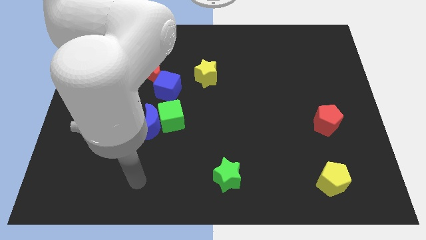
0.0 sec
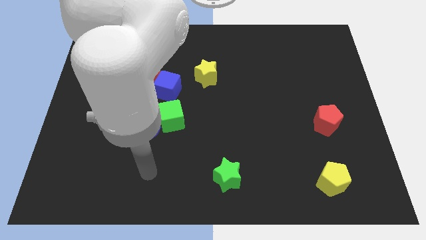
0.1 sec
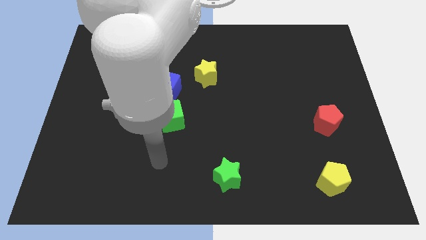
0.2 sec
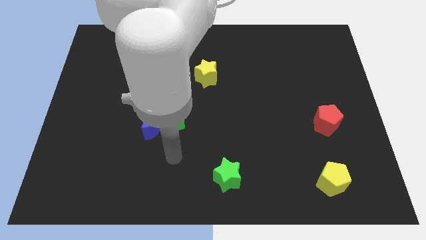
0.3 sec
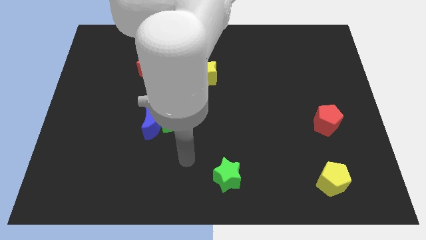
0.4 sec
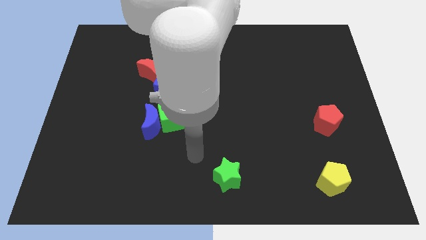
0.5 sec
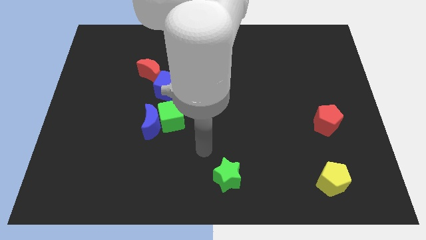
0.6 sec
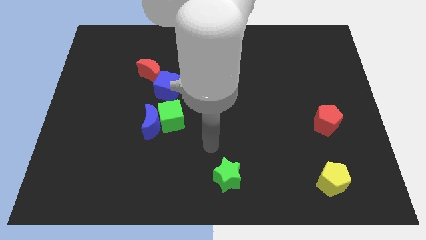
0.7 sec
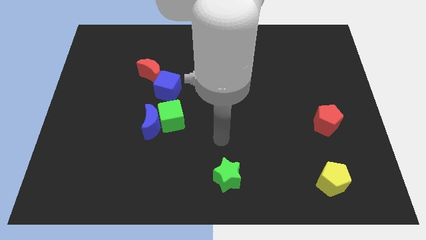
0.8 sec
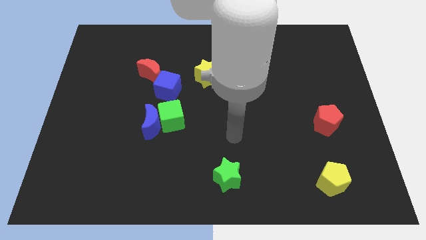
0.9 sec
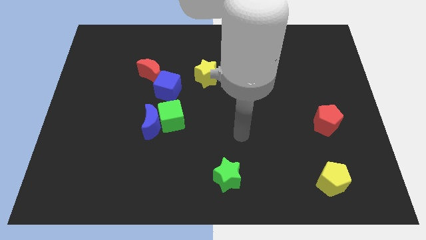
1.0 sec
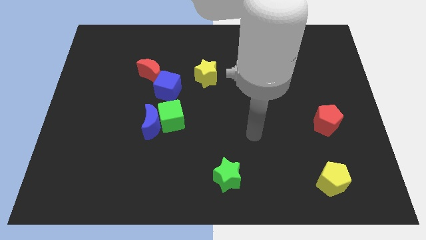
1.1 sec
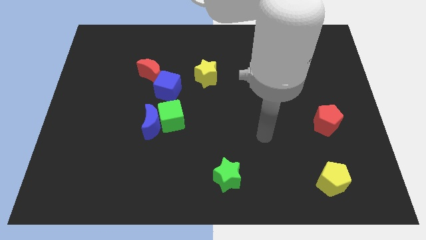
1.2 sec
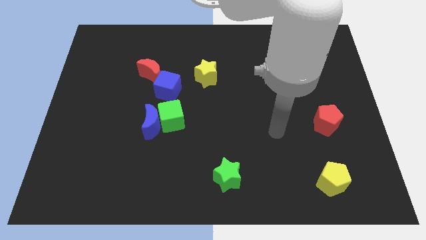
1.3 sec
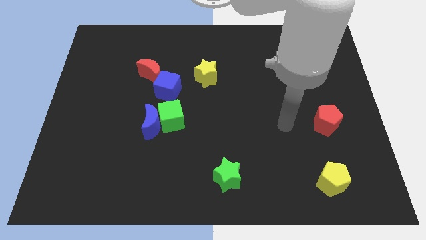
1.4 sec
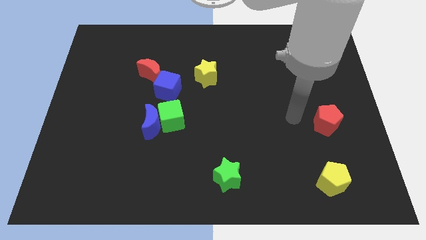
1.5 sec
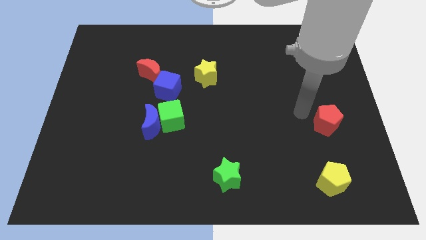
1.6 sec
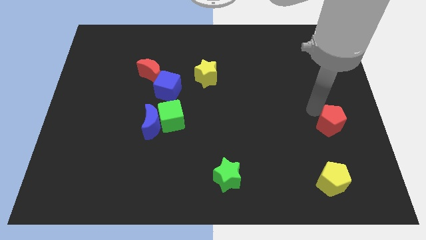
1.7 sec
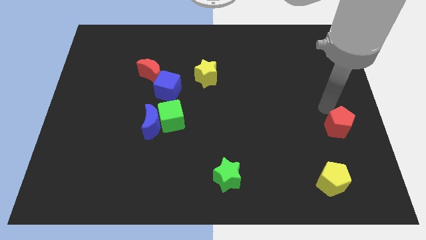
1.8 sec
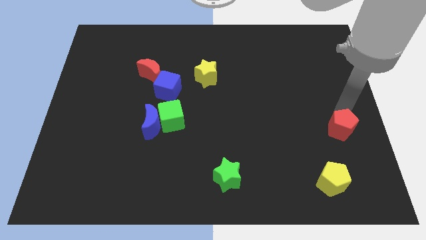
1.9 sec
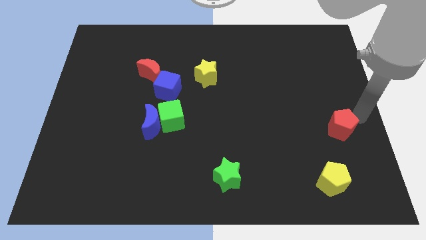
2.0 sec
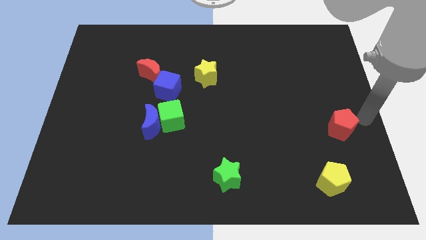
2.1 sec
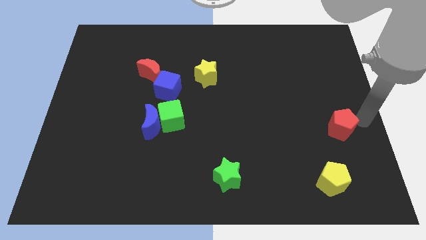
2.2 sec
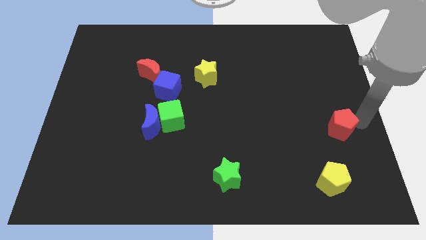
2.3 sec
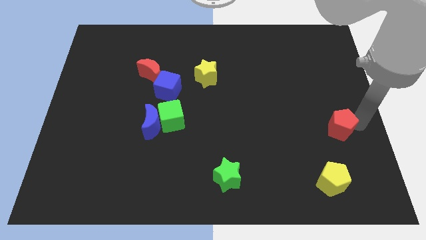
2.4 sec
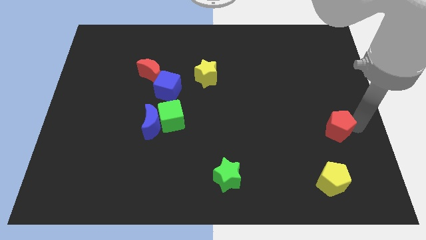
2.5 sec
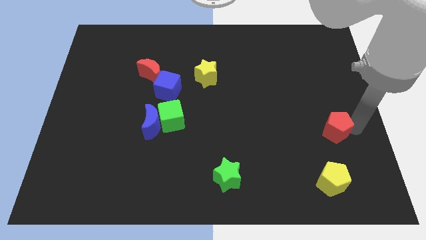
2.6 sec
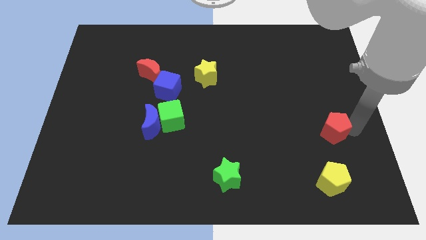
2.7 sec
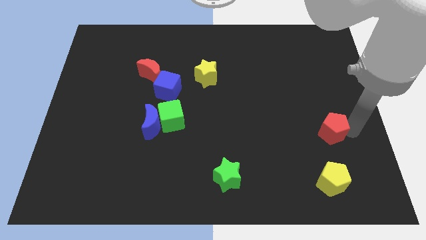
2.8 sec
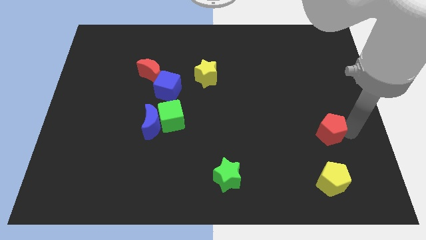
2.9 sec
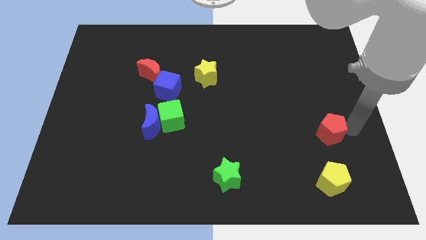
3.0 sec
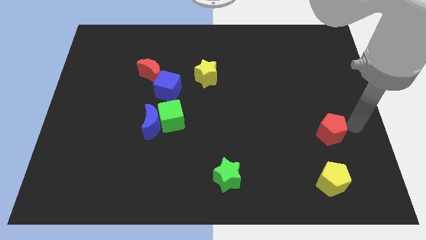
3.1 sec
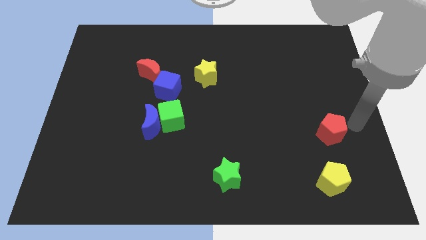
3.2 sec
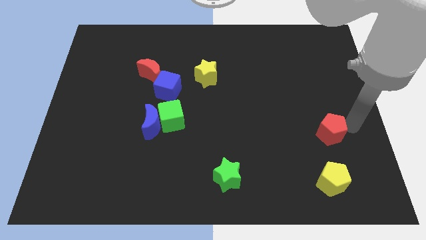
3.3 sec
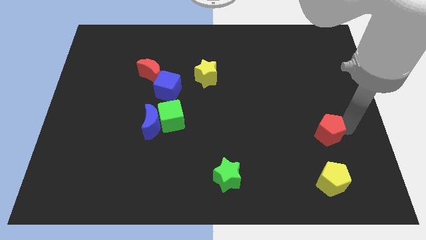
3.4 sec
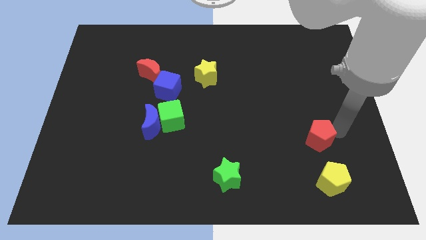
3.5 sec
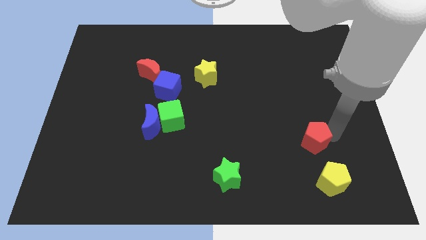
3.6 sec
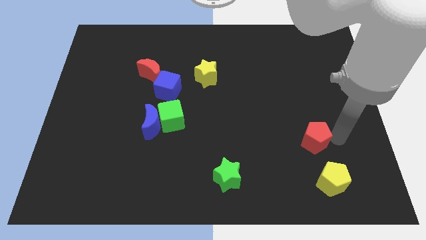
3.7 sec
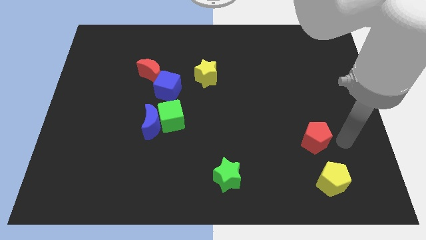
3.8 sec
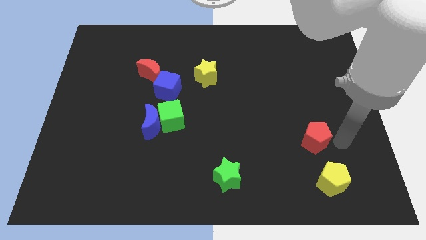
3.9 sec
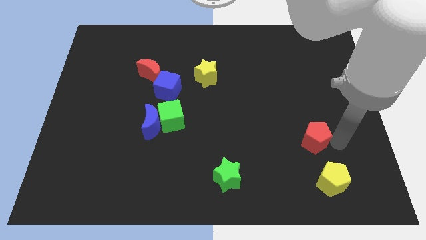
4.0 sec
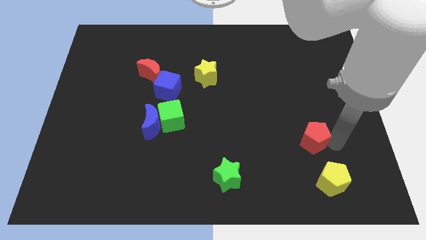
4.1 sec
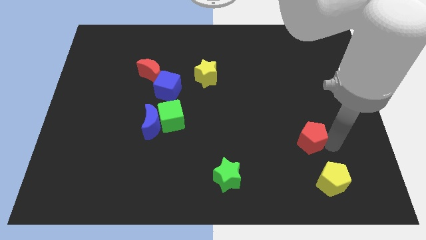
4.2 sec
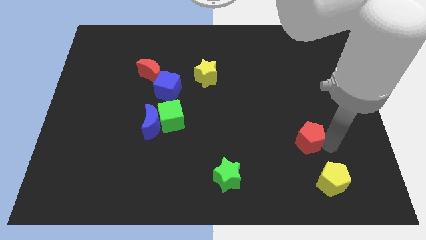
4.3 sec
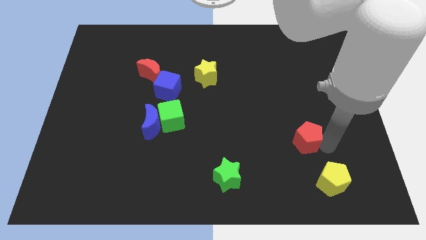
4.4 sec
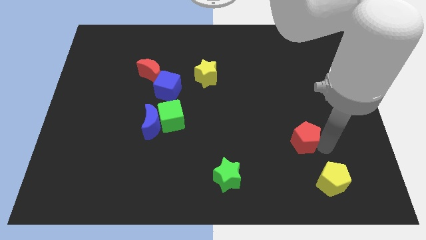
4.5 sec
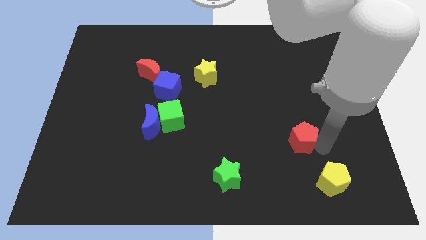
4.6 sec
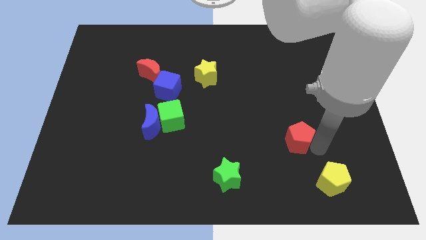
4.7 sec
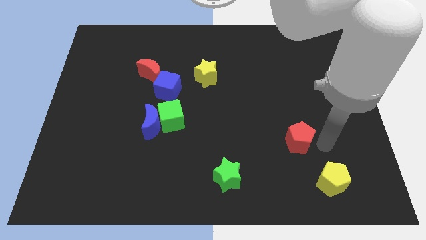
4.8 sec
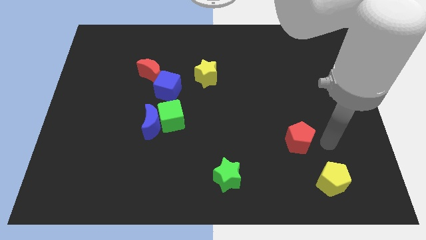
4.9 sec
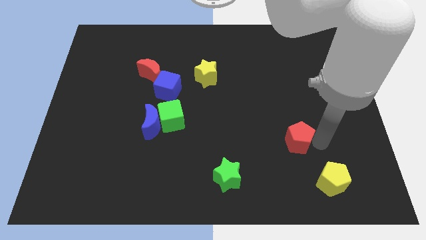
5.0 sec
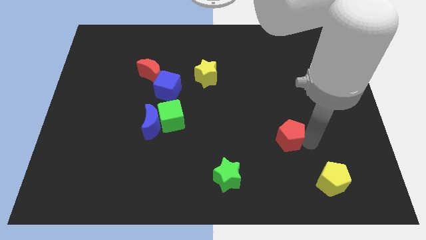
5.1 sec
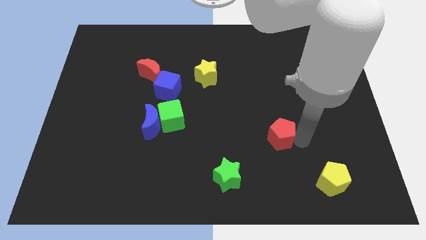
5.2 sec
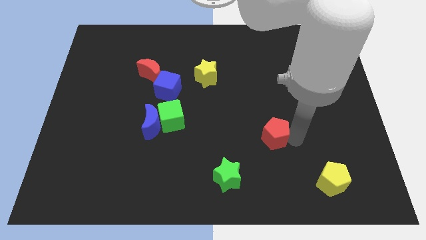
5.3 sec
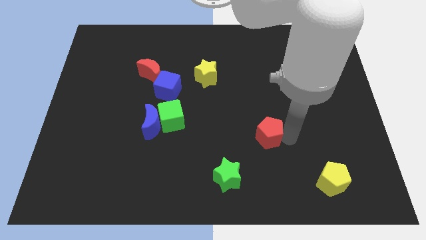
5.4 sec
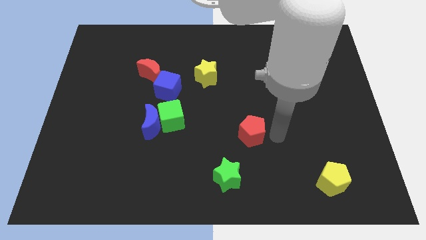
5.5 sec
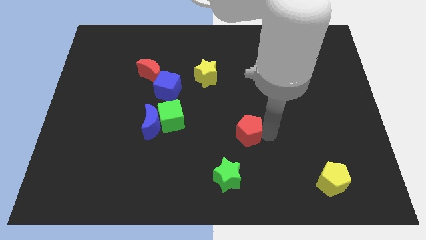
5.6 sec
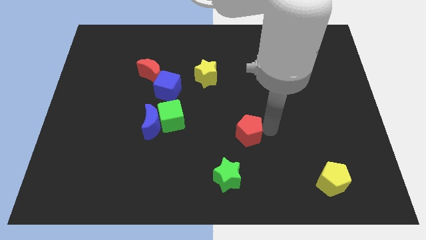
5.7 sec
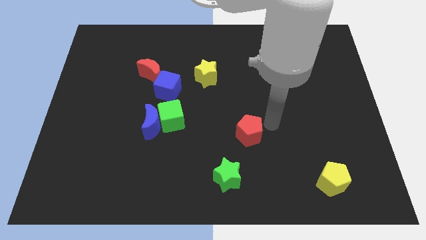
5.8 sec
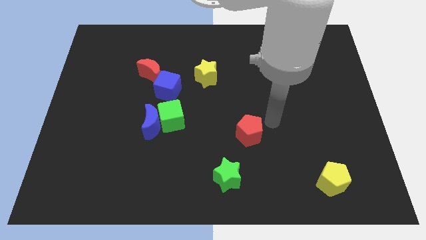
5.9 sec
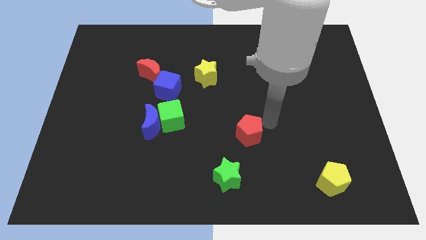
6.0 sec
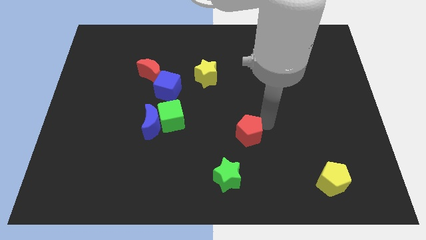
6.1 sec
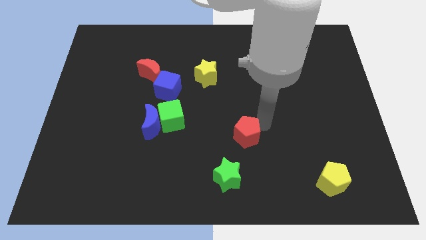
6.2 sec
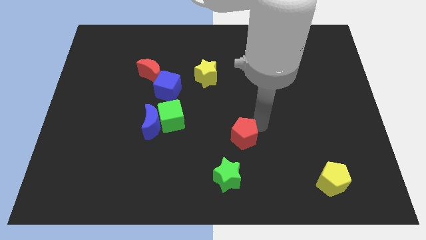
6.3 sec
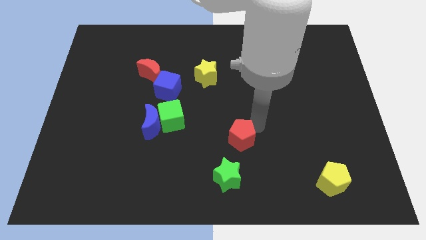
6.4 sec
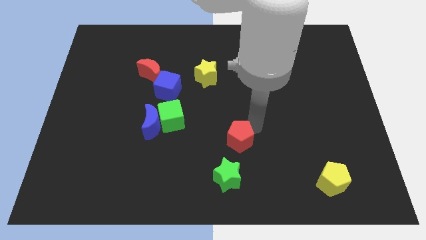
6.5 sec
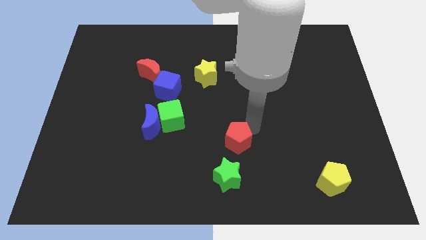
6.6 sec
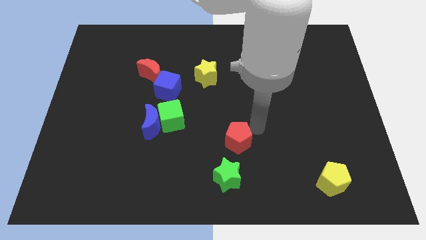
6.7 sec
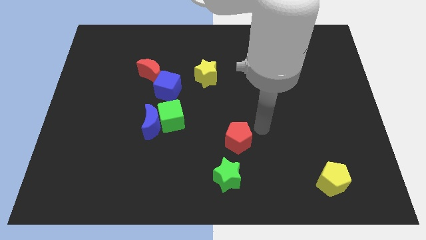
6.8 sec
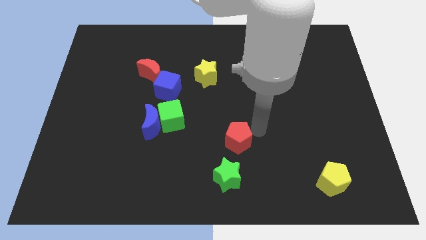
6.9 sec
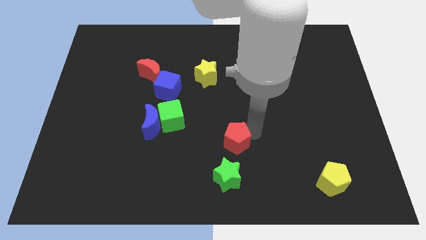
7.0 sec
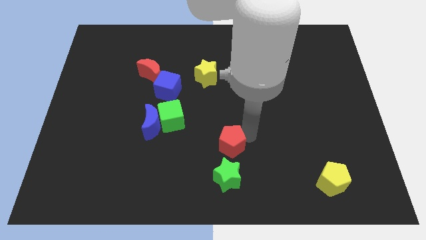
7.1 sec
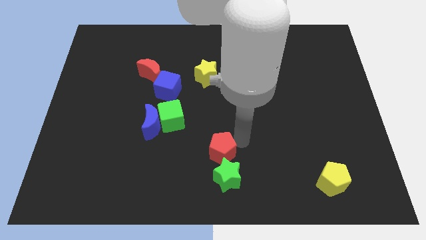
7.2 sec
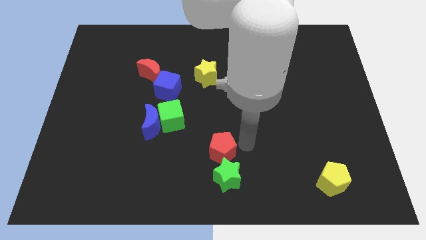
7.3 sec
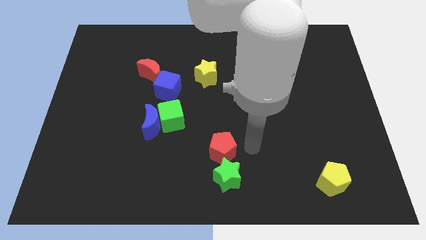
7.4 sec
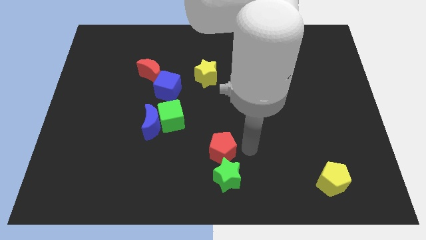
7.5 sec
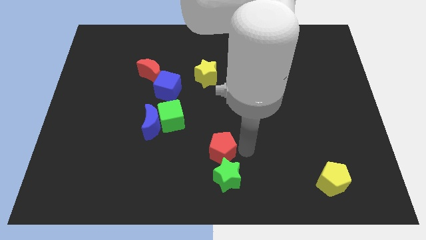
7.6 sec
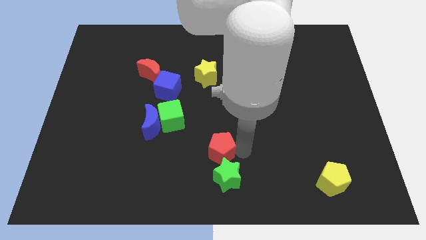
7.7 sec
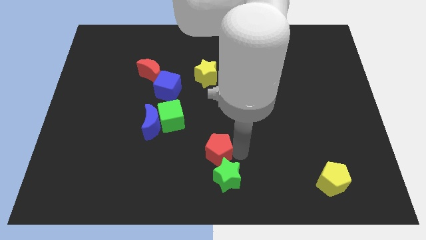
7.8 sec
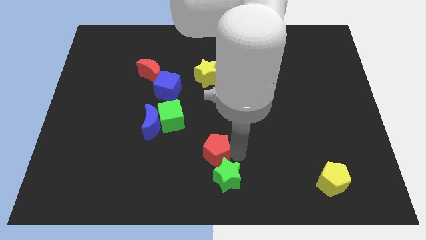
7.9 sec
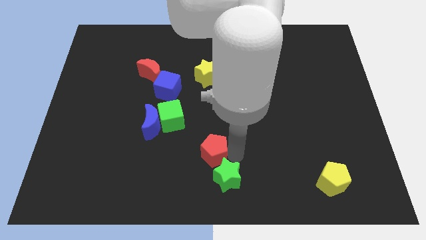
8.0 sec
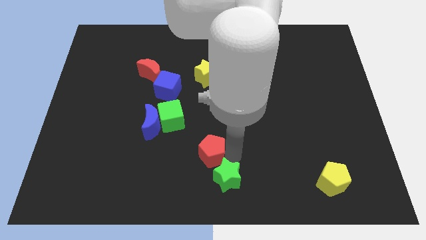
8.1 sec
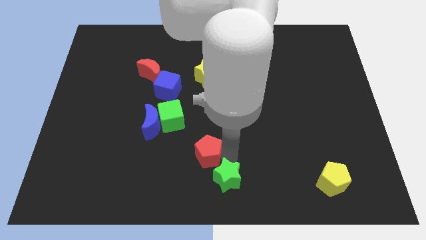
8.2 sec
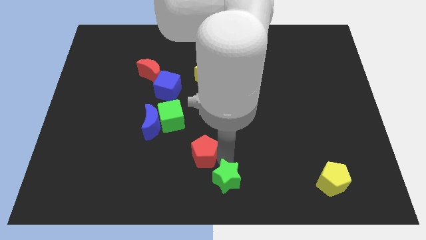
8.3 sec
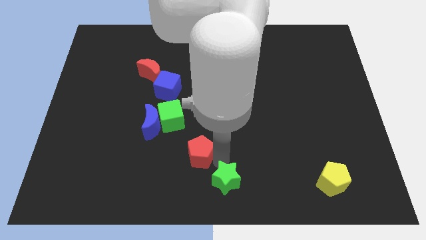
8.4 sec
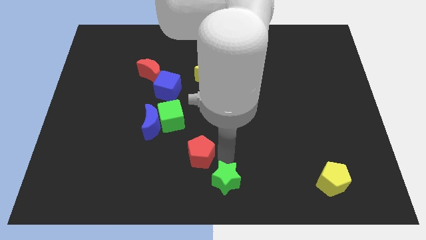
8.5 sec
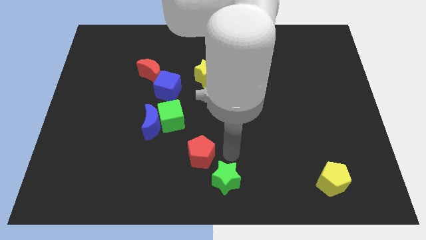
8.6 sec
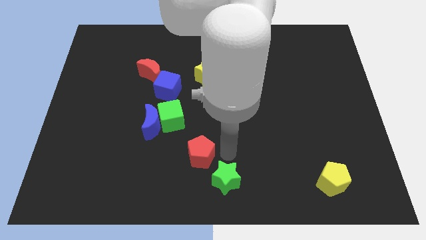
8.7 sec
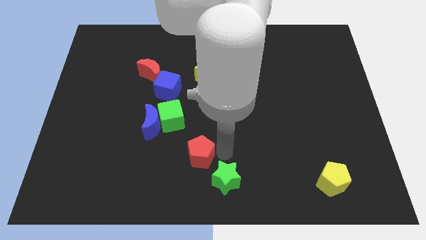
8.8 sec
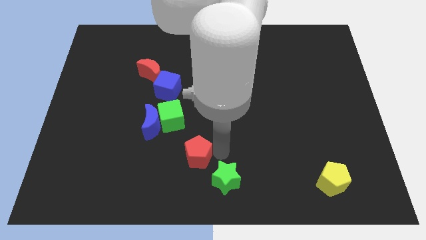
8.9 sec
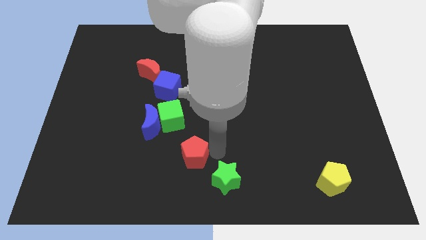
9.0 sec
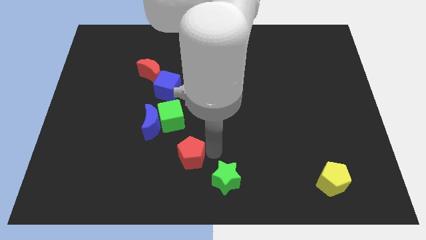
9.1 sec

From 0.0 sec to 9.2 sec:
move the red pentagon below the green cube
